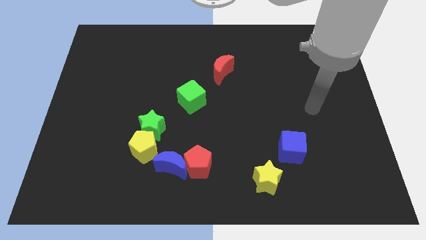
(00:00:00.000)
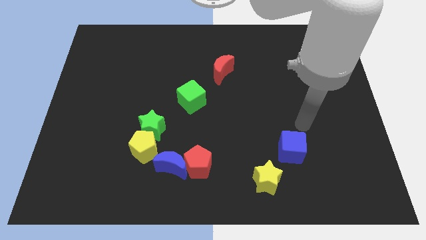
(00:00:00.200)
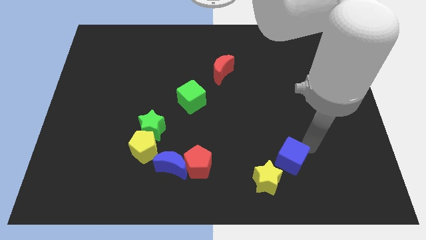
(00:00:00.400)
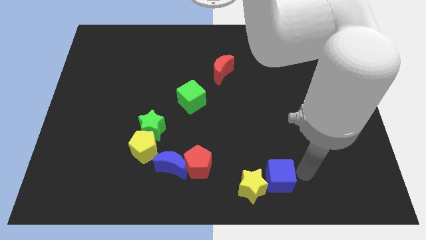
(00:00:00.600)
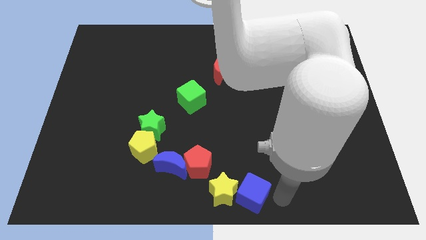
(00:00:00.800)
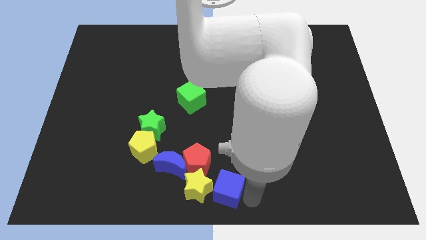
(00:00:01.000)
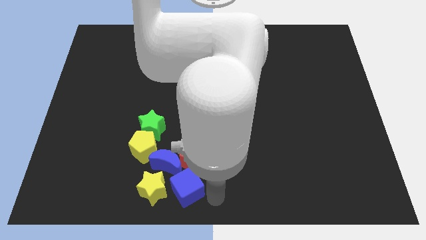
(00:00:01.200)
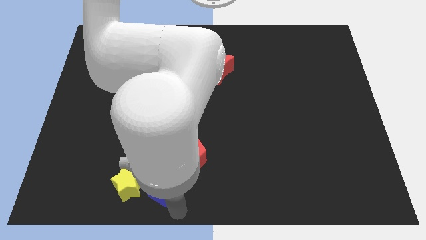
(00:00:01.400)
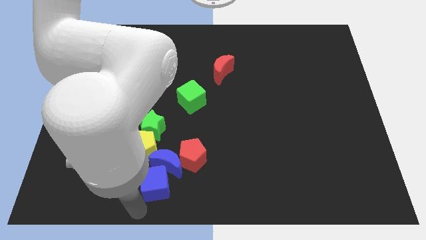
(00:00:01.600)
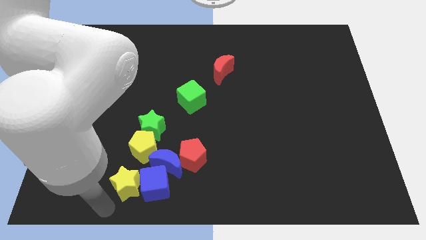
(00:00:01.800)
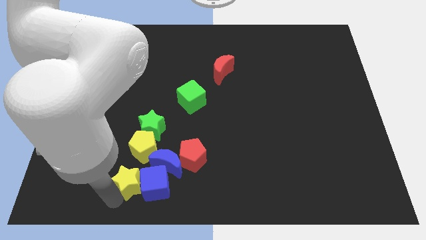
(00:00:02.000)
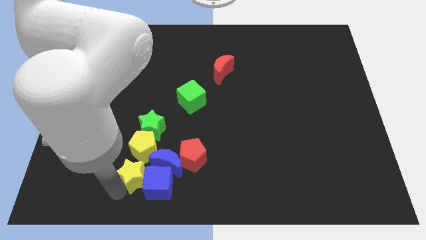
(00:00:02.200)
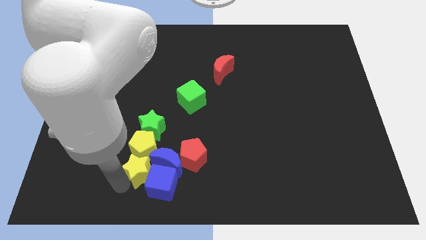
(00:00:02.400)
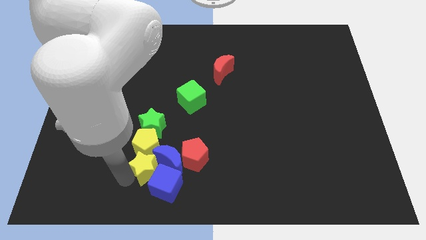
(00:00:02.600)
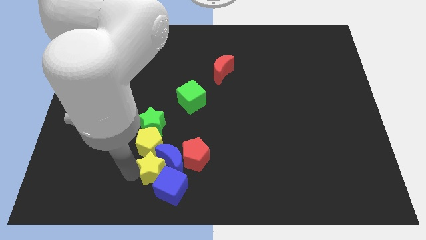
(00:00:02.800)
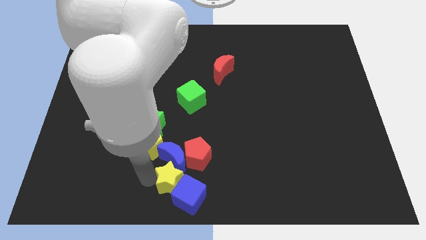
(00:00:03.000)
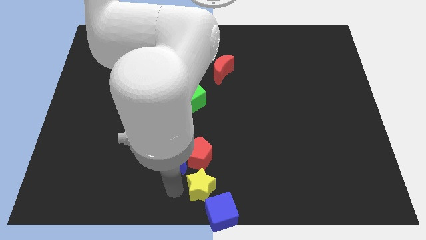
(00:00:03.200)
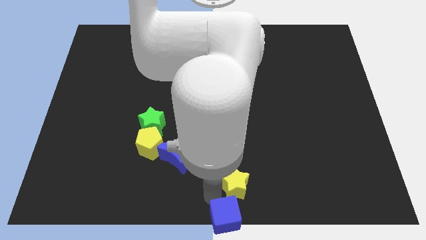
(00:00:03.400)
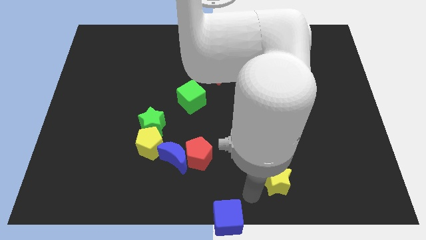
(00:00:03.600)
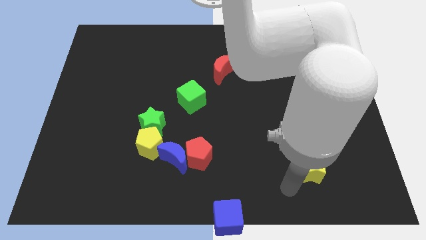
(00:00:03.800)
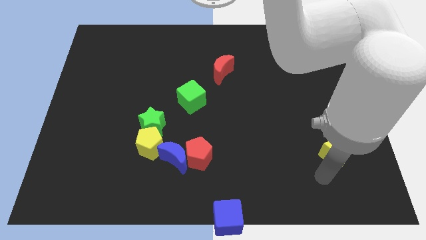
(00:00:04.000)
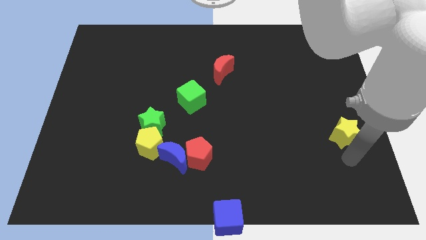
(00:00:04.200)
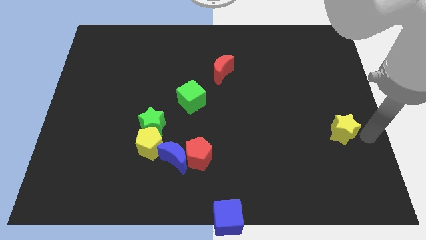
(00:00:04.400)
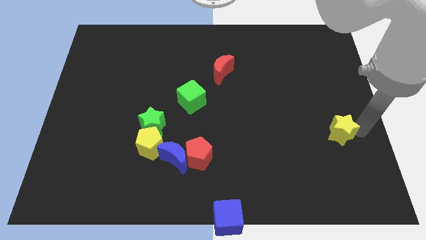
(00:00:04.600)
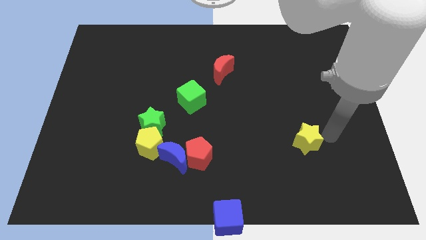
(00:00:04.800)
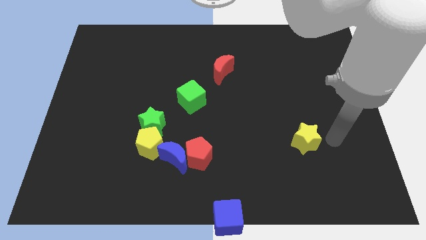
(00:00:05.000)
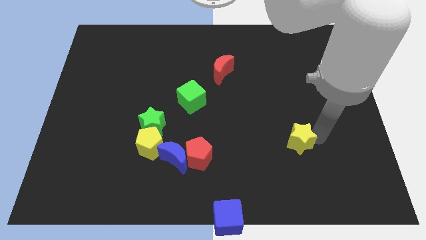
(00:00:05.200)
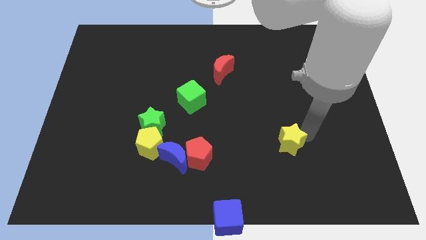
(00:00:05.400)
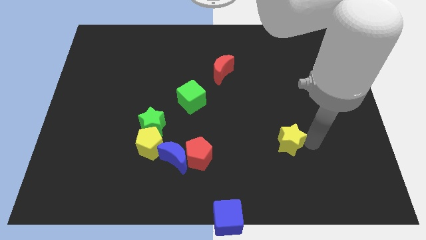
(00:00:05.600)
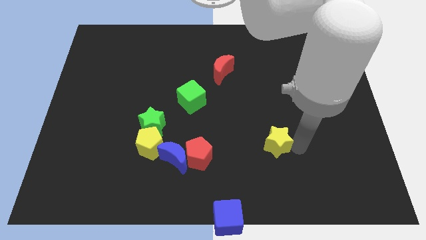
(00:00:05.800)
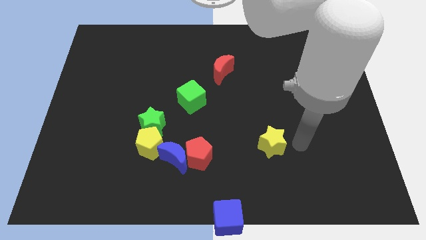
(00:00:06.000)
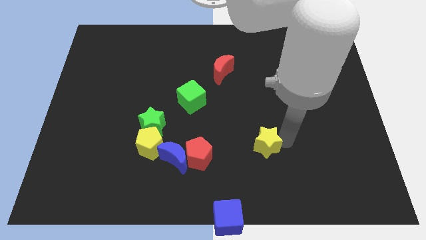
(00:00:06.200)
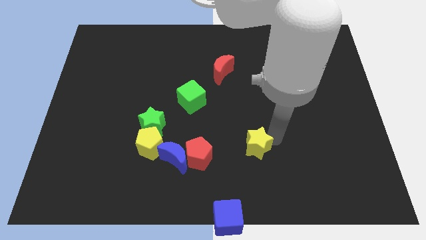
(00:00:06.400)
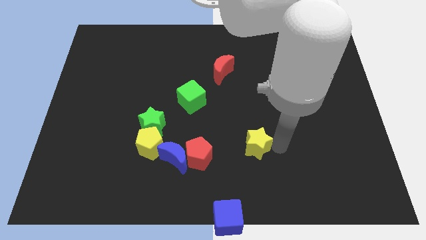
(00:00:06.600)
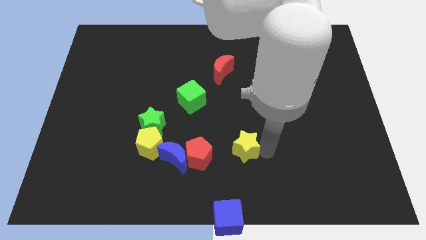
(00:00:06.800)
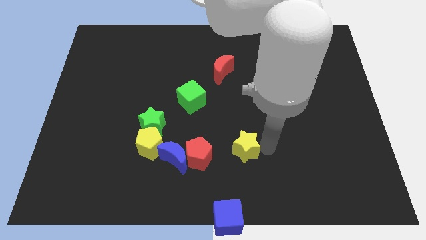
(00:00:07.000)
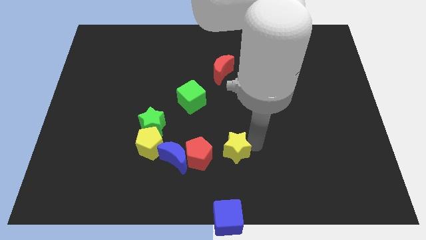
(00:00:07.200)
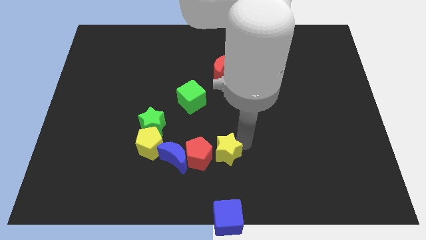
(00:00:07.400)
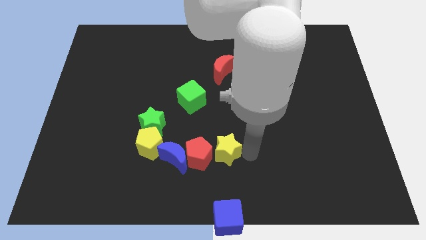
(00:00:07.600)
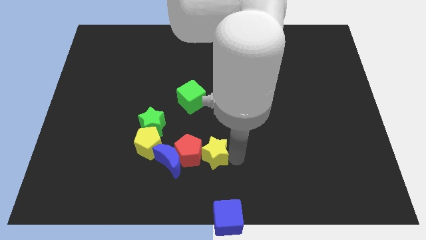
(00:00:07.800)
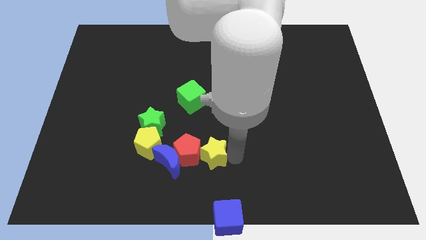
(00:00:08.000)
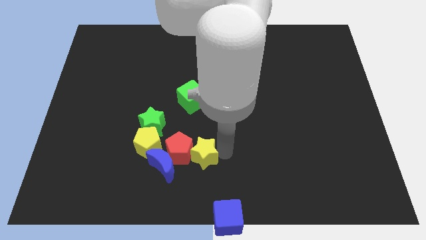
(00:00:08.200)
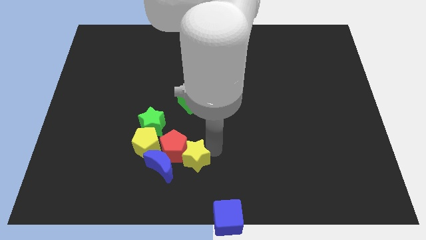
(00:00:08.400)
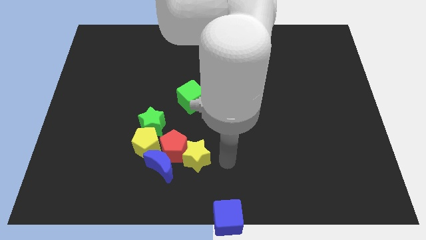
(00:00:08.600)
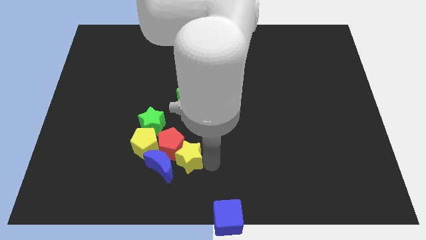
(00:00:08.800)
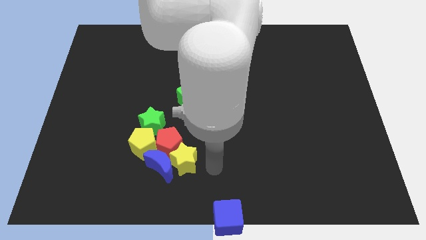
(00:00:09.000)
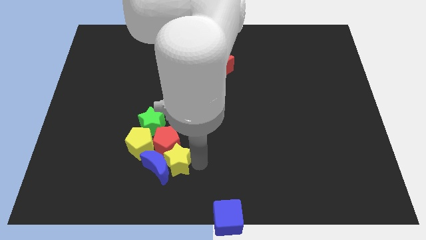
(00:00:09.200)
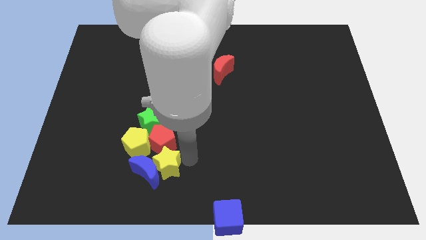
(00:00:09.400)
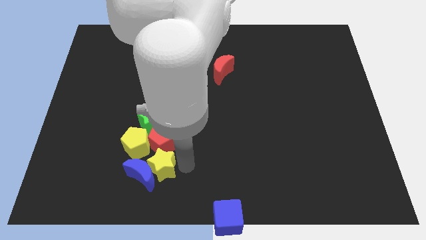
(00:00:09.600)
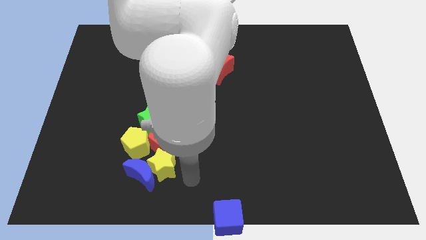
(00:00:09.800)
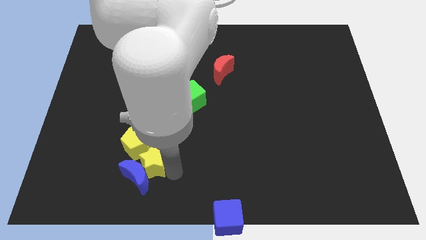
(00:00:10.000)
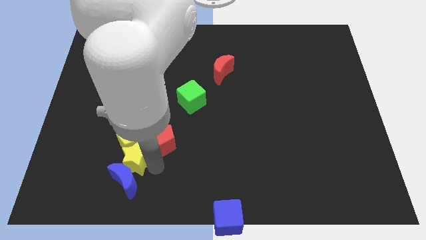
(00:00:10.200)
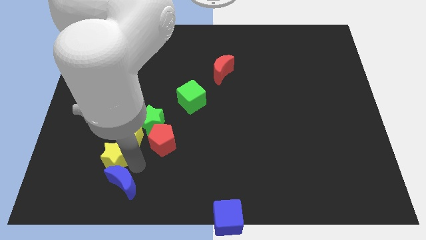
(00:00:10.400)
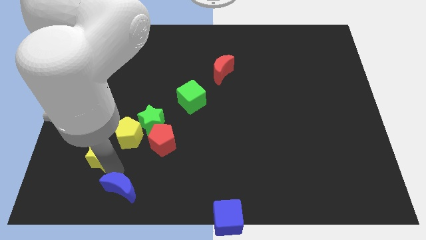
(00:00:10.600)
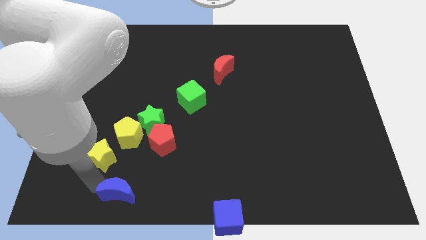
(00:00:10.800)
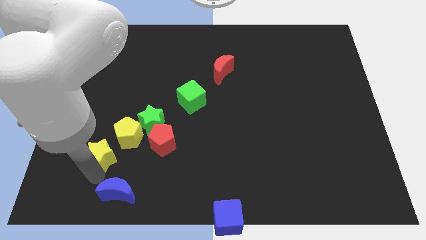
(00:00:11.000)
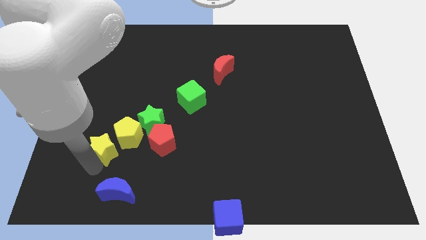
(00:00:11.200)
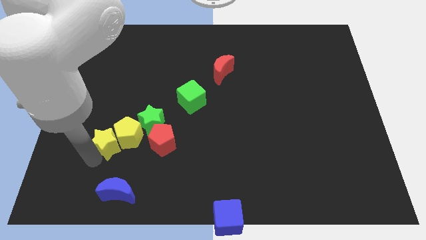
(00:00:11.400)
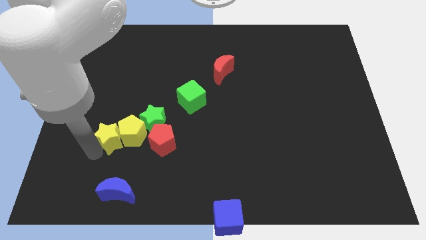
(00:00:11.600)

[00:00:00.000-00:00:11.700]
put the yellow star to the top left of the yellow pentagon
